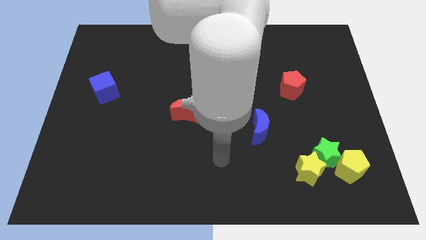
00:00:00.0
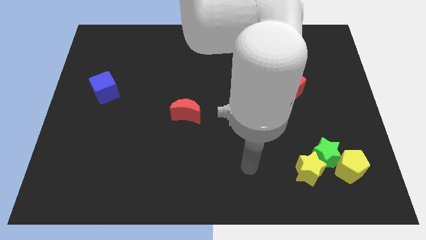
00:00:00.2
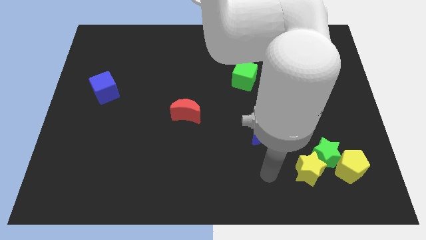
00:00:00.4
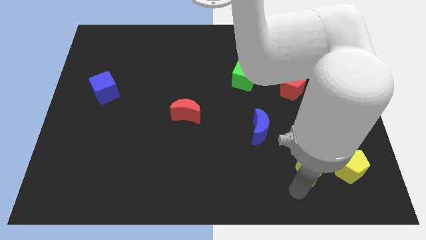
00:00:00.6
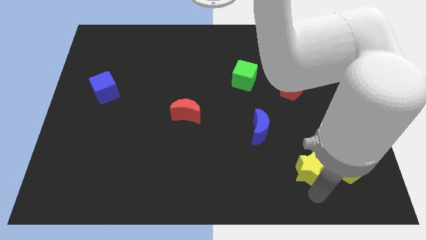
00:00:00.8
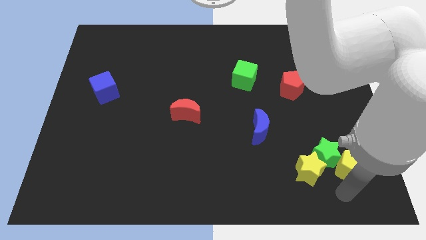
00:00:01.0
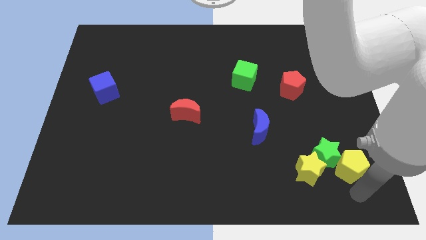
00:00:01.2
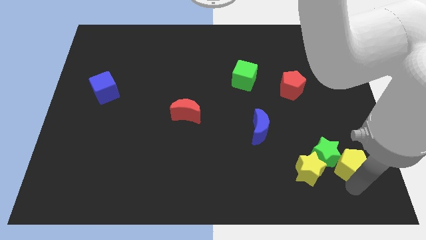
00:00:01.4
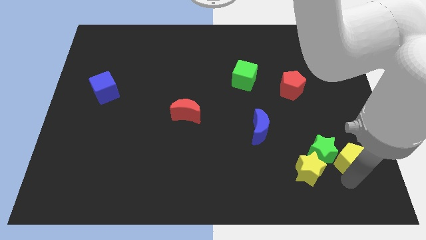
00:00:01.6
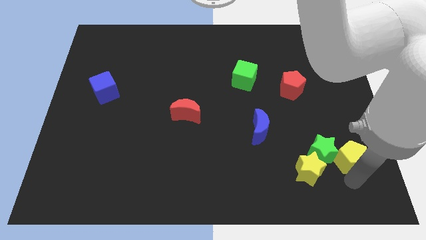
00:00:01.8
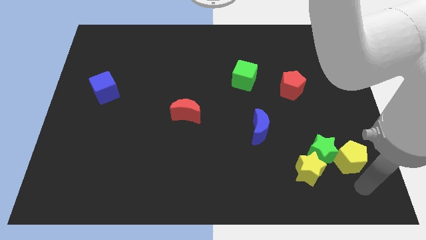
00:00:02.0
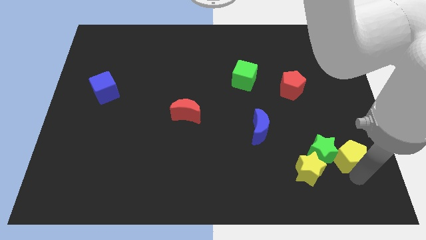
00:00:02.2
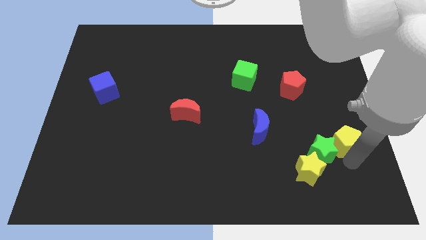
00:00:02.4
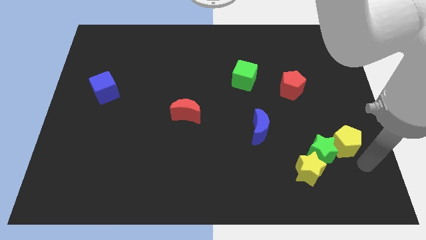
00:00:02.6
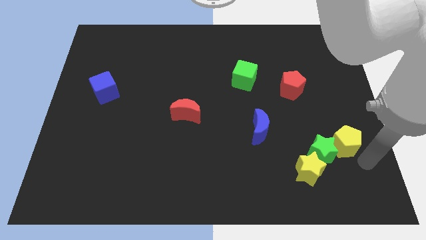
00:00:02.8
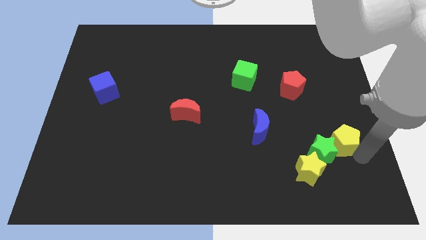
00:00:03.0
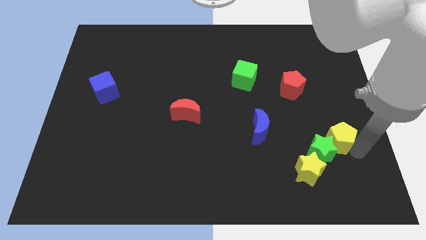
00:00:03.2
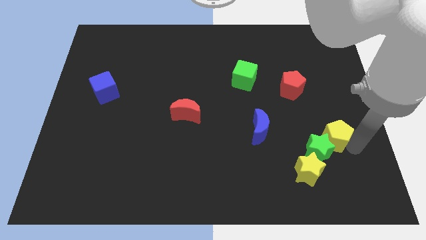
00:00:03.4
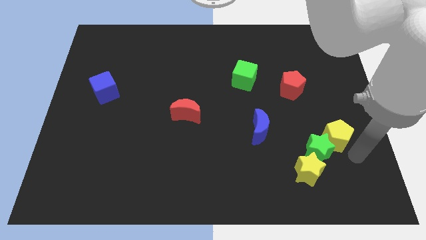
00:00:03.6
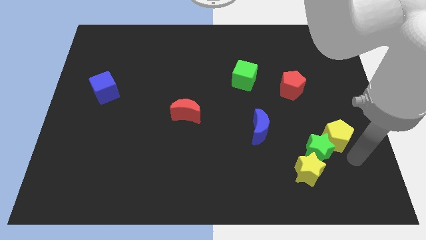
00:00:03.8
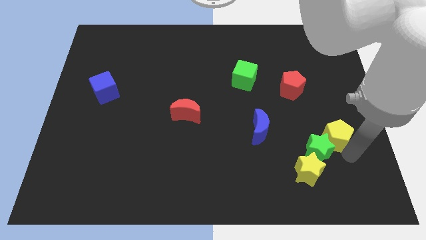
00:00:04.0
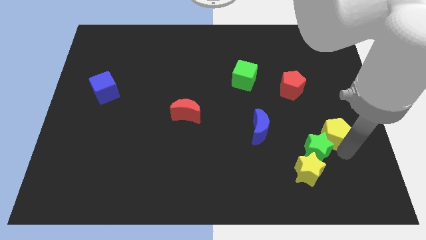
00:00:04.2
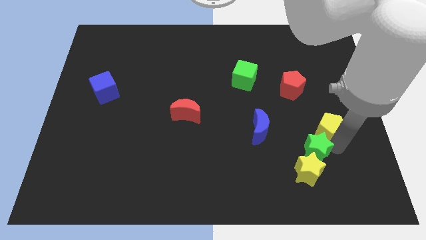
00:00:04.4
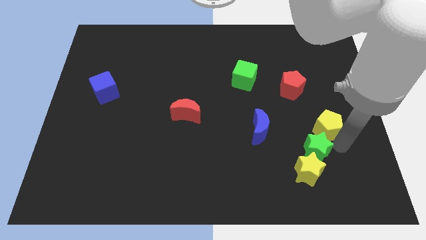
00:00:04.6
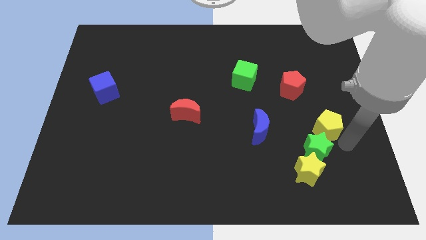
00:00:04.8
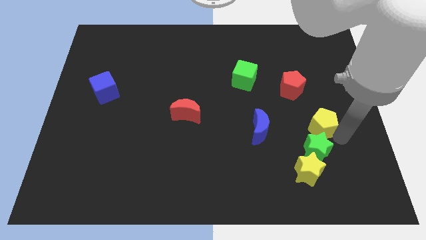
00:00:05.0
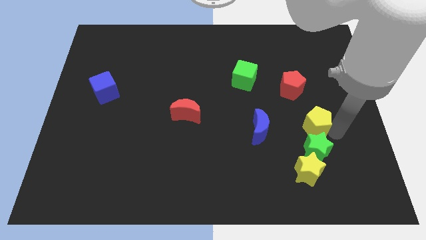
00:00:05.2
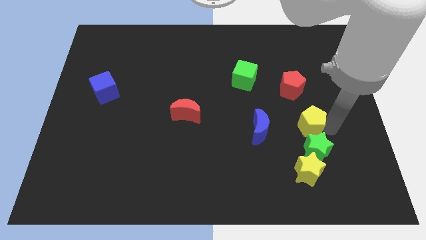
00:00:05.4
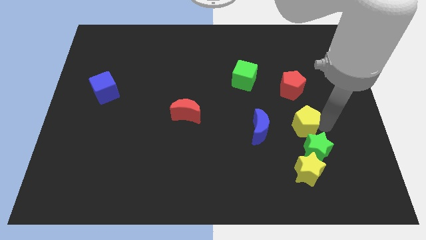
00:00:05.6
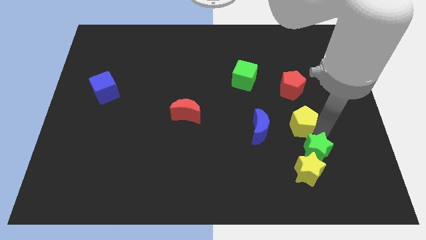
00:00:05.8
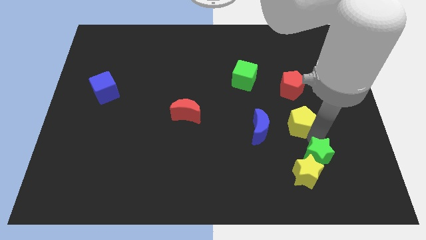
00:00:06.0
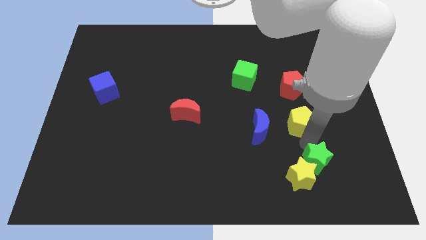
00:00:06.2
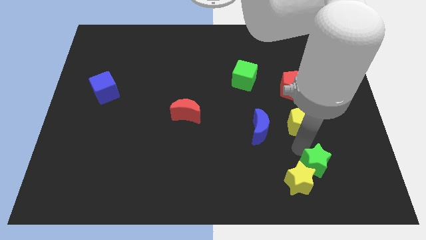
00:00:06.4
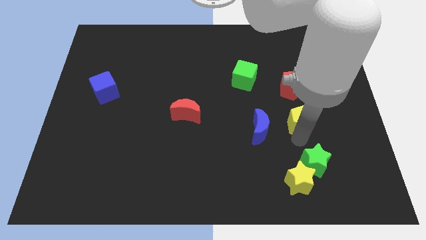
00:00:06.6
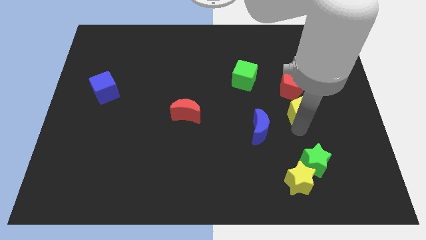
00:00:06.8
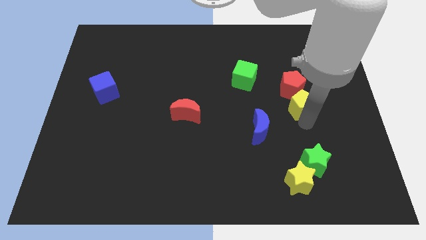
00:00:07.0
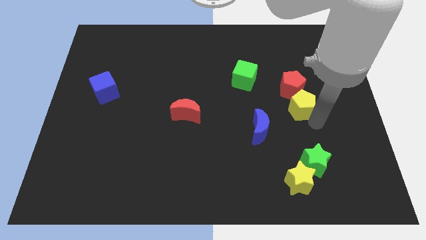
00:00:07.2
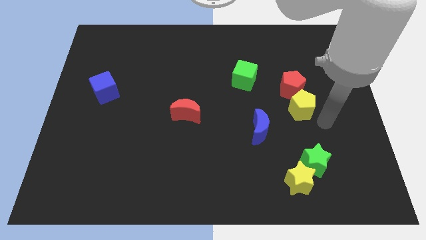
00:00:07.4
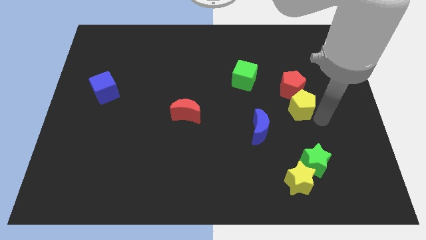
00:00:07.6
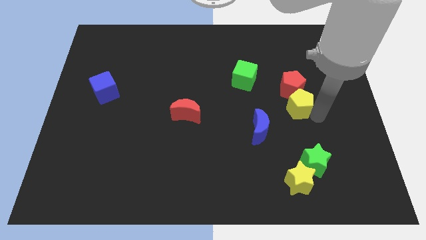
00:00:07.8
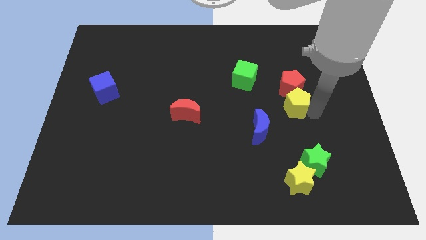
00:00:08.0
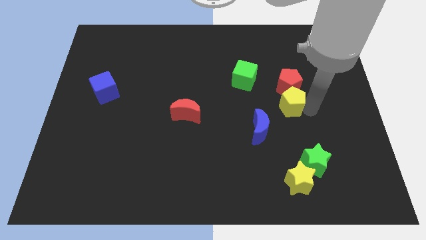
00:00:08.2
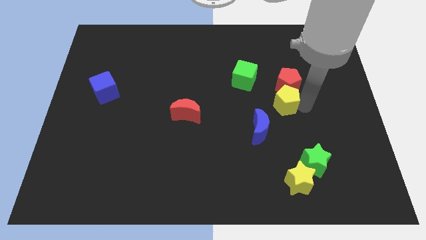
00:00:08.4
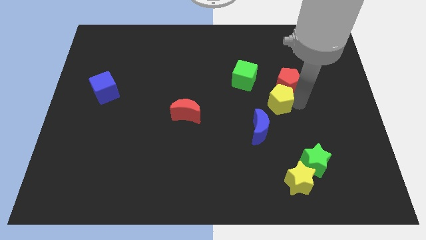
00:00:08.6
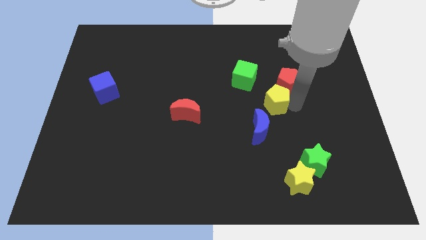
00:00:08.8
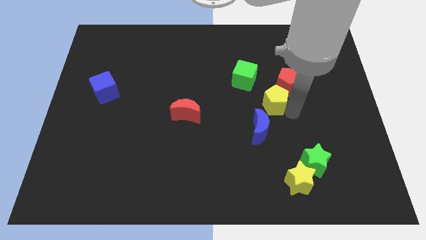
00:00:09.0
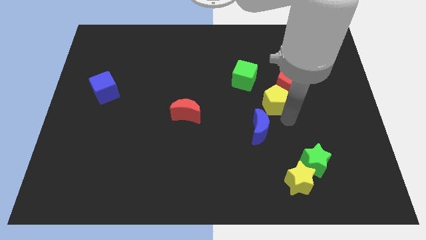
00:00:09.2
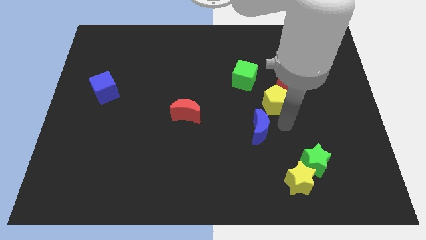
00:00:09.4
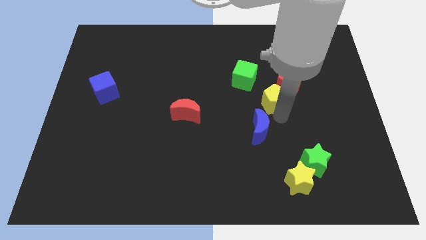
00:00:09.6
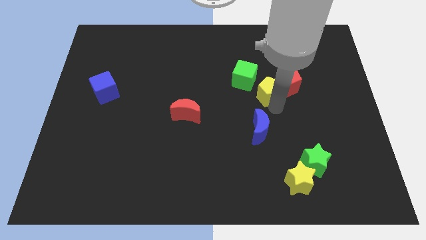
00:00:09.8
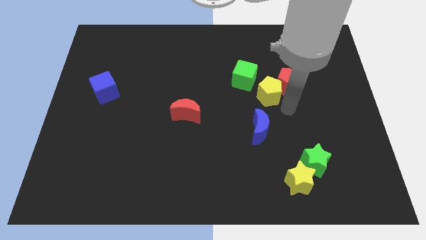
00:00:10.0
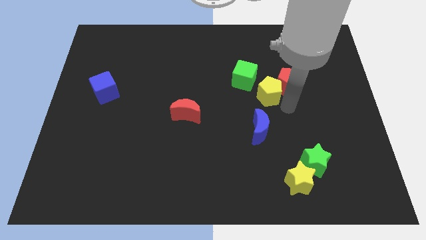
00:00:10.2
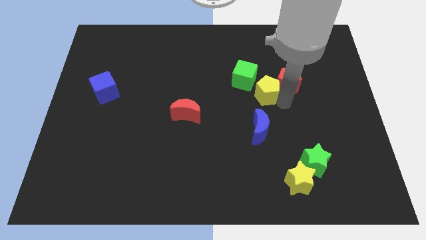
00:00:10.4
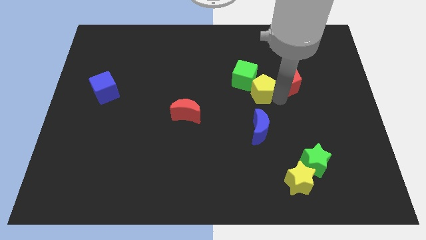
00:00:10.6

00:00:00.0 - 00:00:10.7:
slide the yellow pentagon towards the green cube

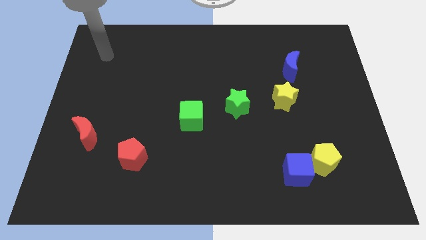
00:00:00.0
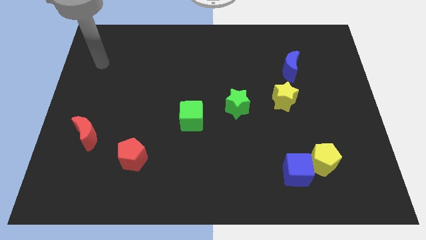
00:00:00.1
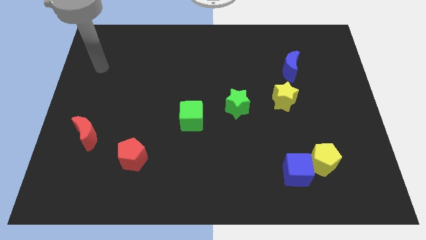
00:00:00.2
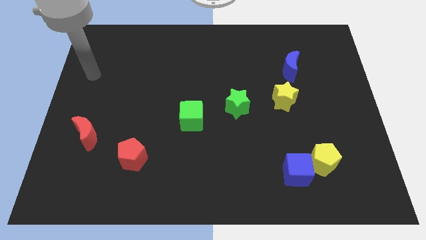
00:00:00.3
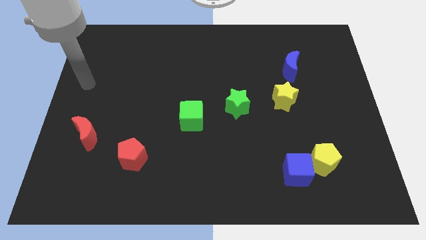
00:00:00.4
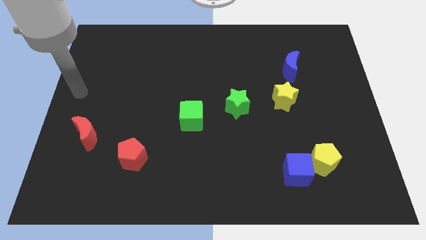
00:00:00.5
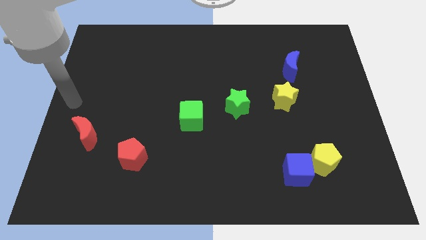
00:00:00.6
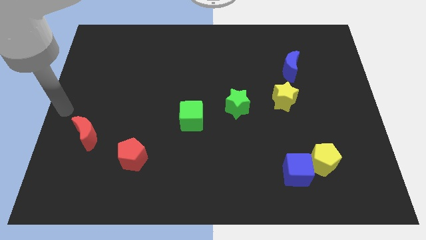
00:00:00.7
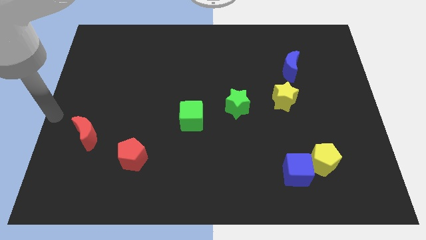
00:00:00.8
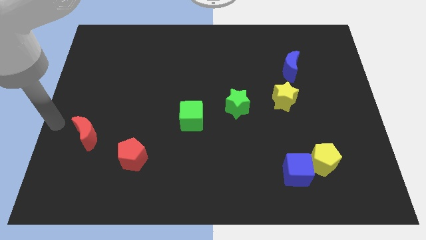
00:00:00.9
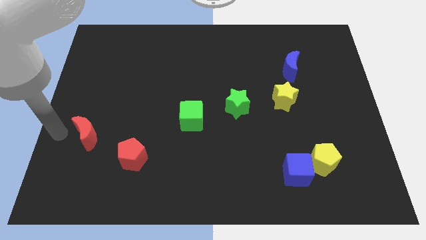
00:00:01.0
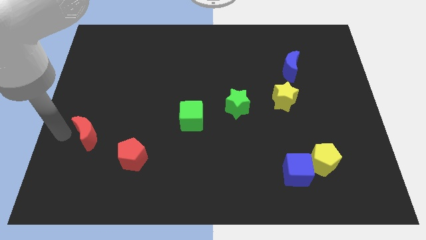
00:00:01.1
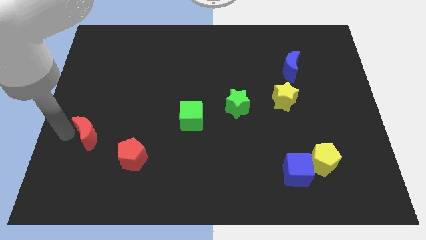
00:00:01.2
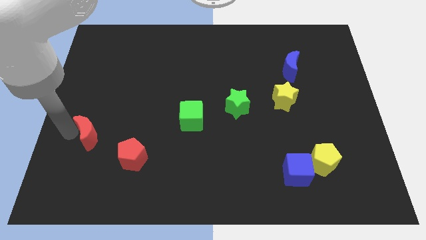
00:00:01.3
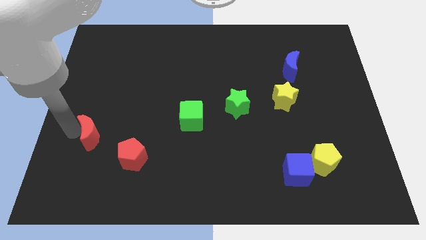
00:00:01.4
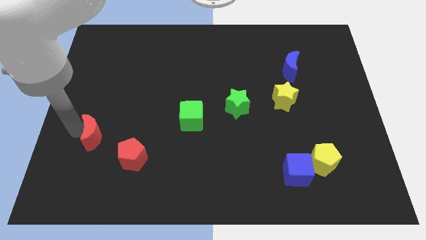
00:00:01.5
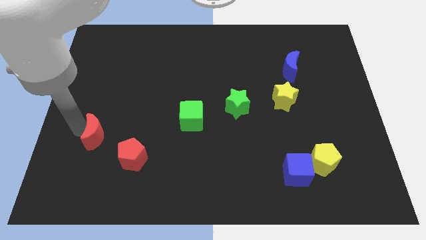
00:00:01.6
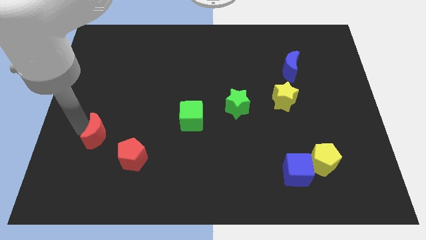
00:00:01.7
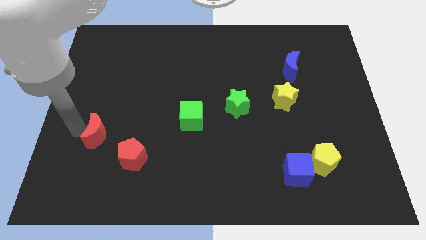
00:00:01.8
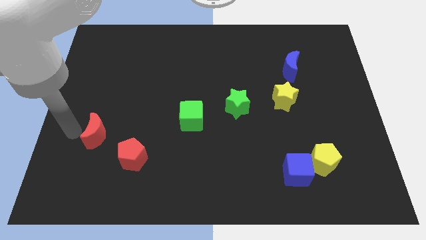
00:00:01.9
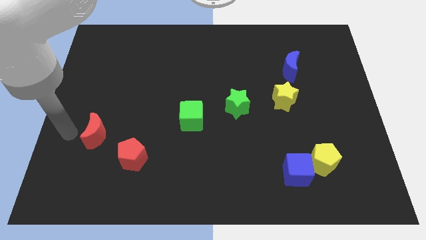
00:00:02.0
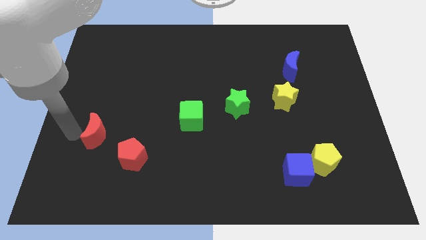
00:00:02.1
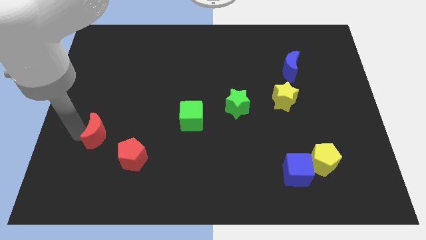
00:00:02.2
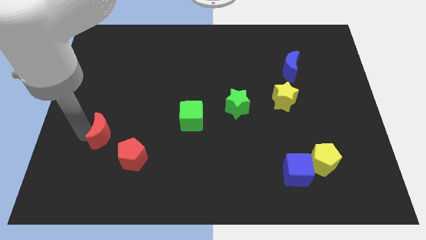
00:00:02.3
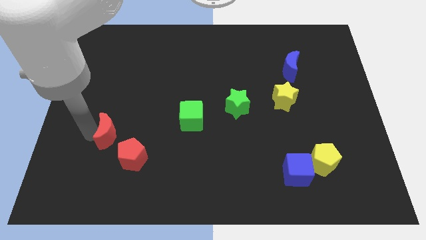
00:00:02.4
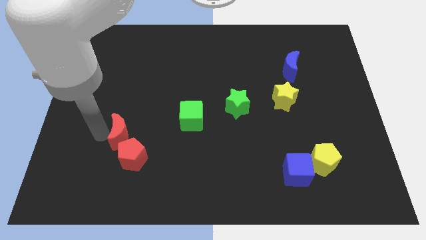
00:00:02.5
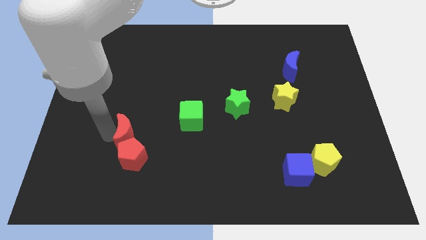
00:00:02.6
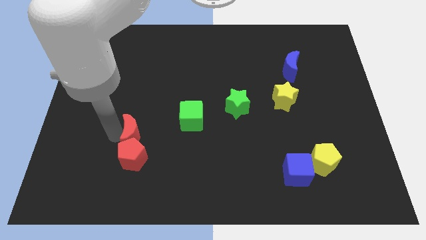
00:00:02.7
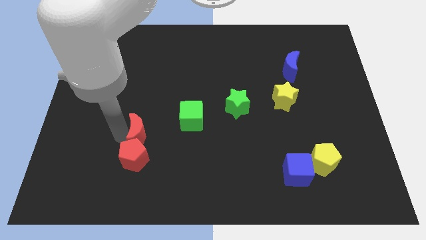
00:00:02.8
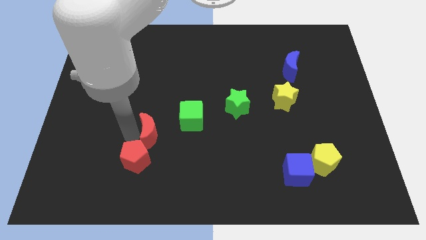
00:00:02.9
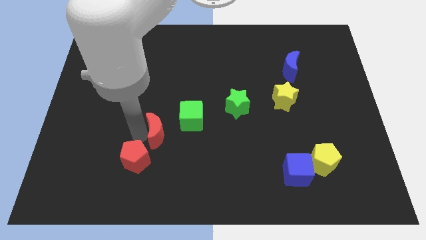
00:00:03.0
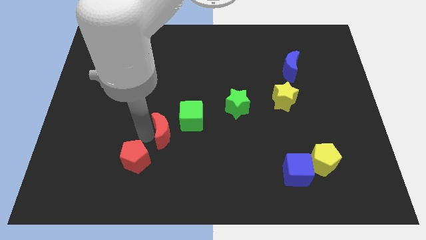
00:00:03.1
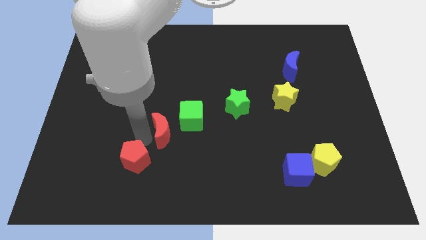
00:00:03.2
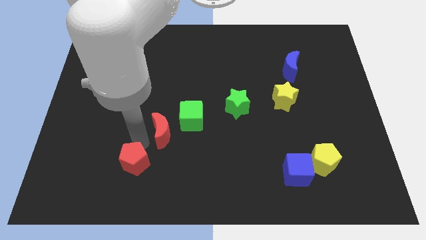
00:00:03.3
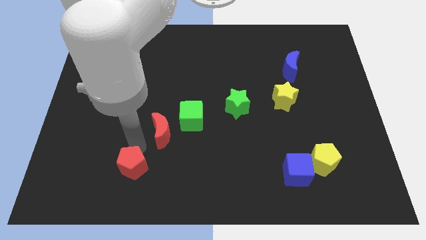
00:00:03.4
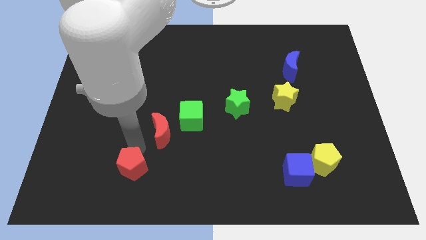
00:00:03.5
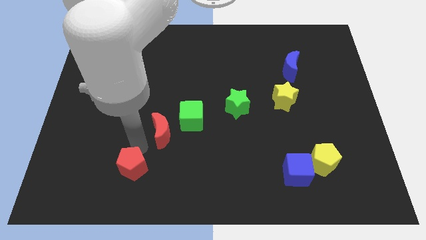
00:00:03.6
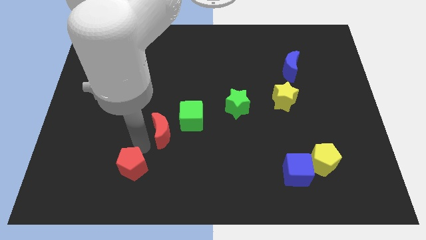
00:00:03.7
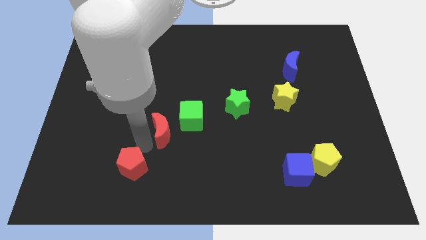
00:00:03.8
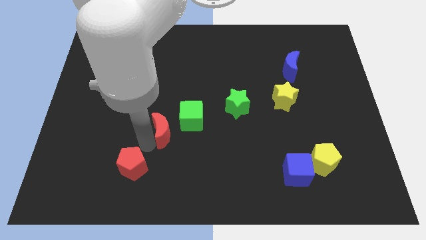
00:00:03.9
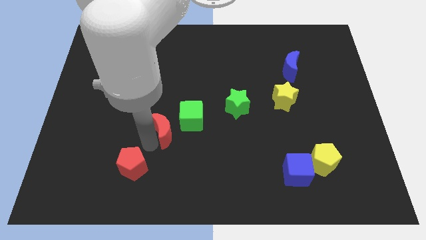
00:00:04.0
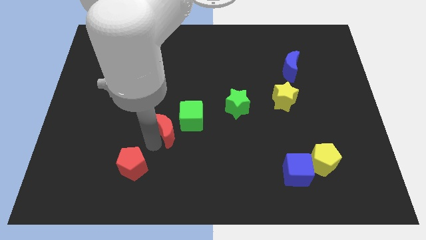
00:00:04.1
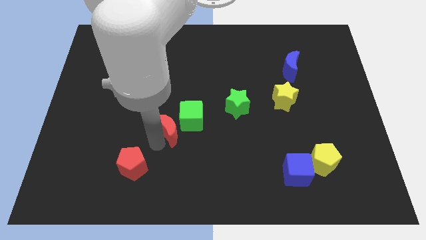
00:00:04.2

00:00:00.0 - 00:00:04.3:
push the red moon close to the green cube
